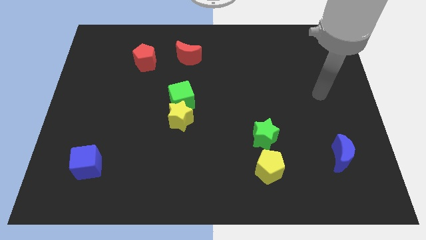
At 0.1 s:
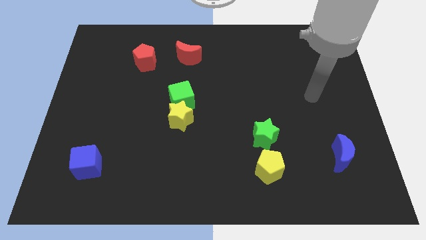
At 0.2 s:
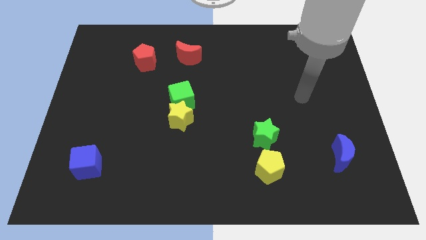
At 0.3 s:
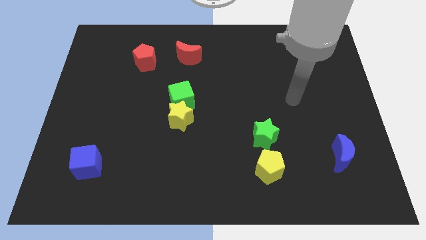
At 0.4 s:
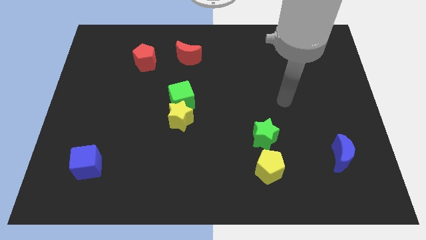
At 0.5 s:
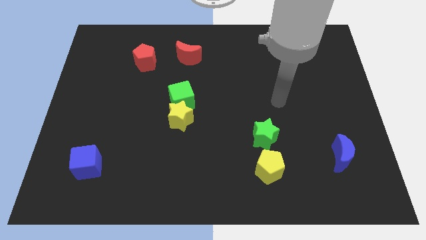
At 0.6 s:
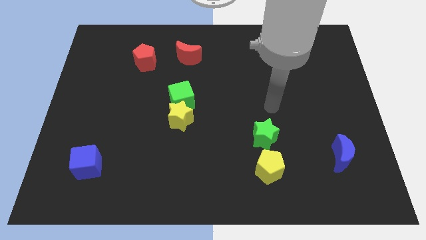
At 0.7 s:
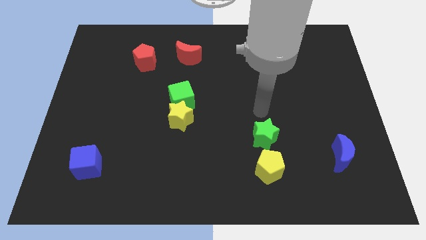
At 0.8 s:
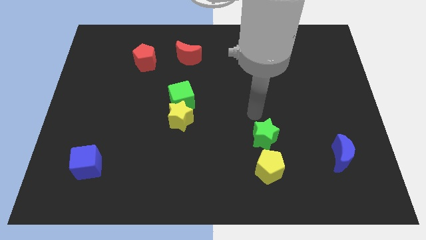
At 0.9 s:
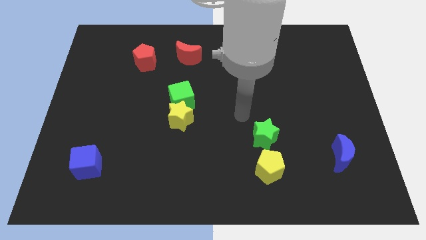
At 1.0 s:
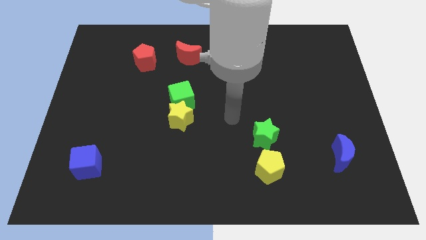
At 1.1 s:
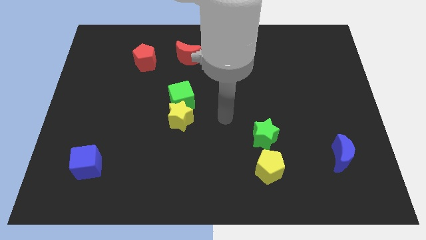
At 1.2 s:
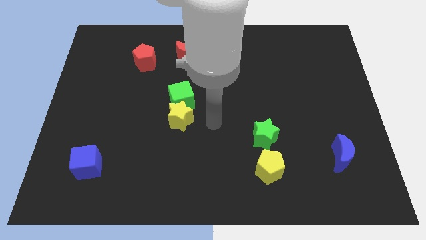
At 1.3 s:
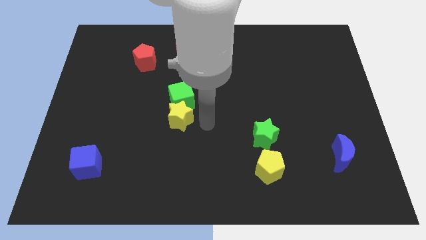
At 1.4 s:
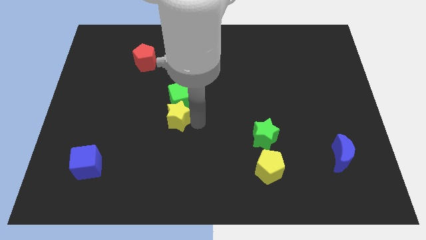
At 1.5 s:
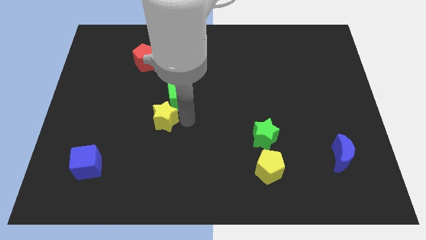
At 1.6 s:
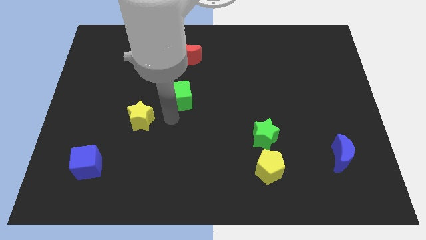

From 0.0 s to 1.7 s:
move the green cube away from the yellow star

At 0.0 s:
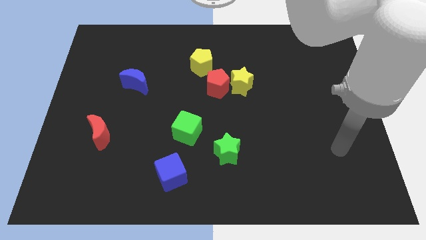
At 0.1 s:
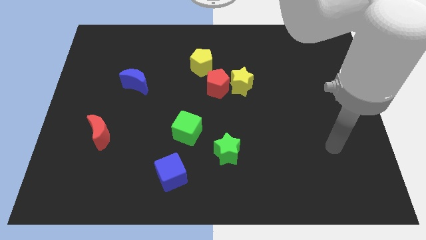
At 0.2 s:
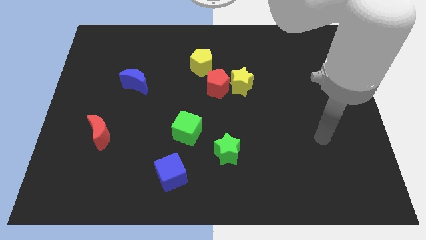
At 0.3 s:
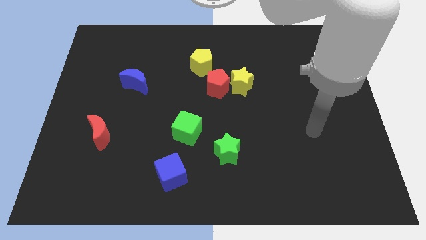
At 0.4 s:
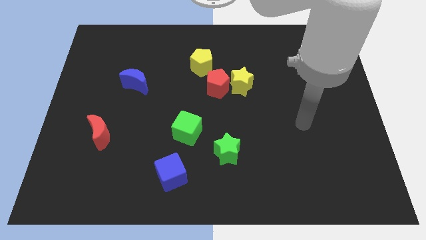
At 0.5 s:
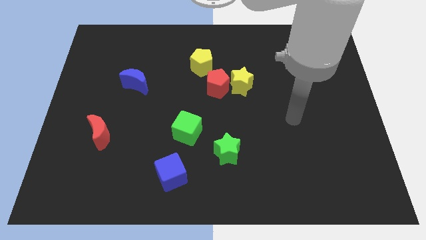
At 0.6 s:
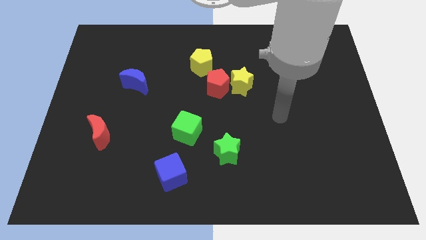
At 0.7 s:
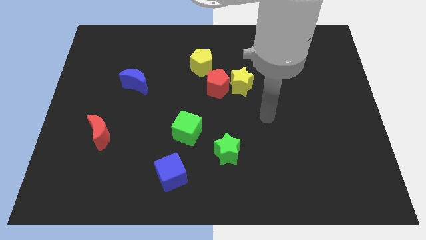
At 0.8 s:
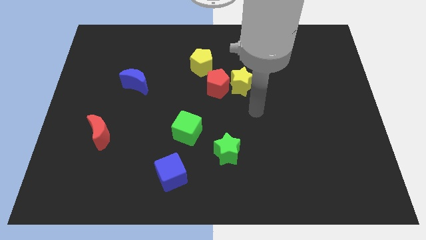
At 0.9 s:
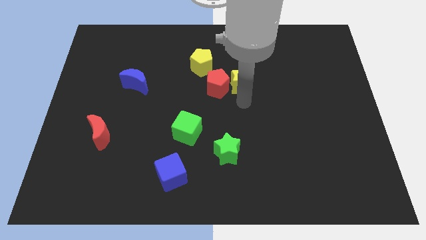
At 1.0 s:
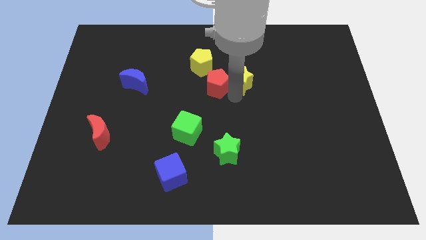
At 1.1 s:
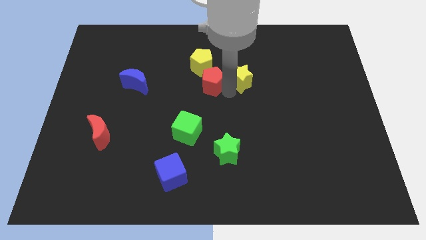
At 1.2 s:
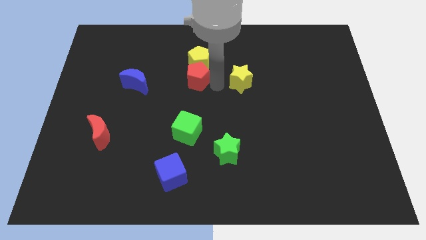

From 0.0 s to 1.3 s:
separate the yellow star from the red pentagon

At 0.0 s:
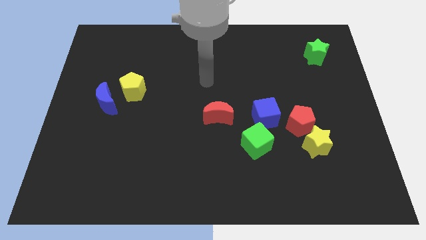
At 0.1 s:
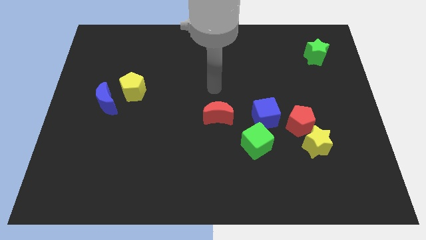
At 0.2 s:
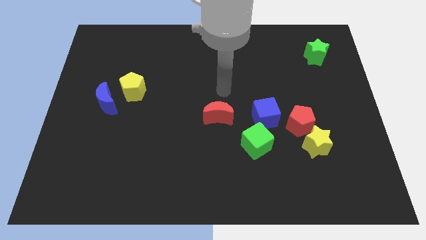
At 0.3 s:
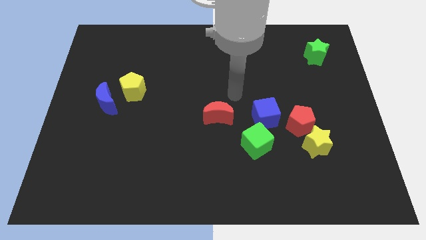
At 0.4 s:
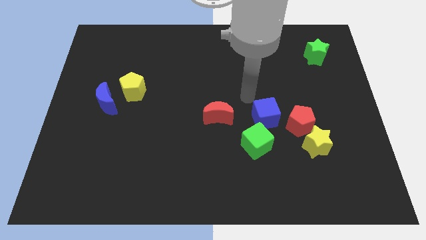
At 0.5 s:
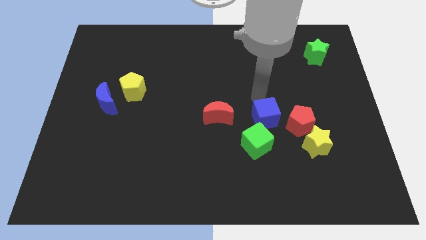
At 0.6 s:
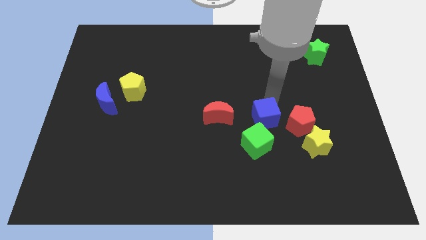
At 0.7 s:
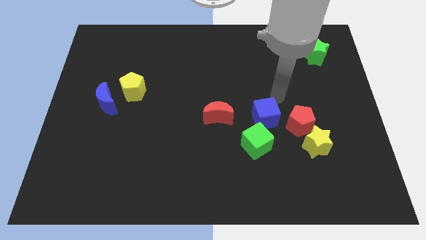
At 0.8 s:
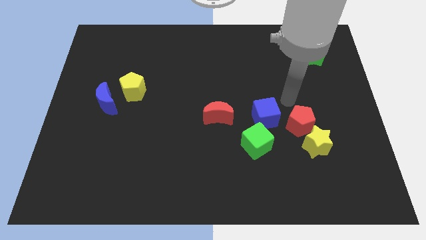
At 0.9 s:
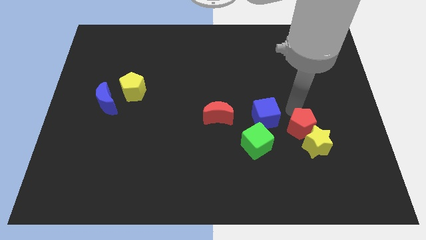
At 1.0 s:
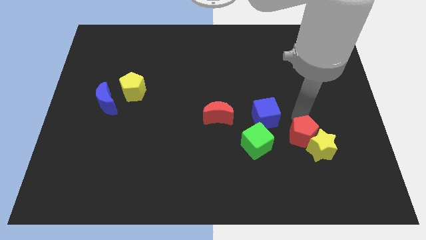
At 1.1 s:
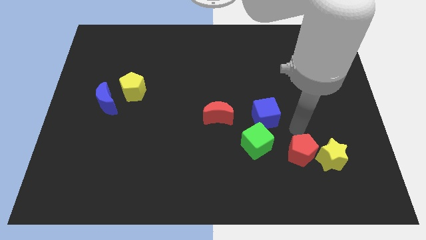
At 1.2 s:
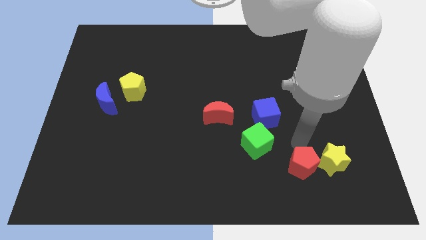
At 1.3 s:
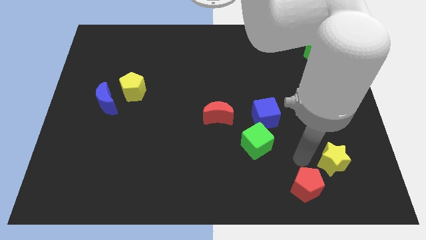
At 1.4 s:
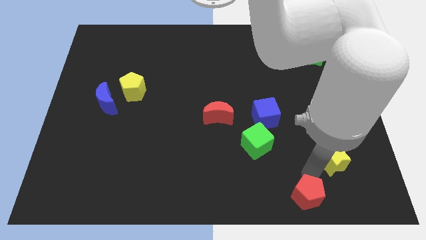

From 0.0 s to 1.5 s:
move the yellow star away from the red pentagon

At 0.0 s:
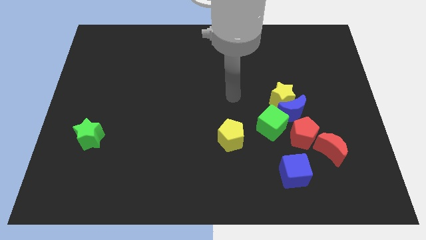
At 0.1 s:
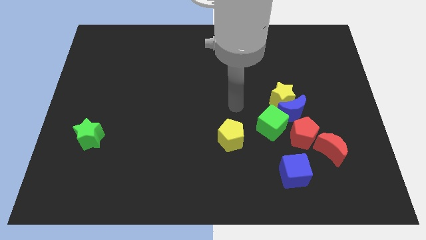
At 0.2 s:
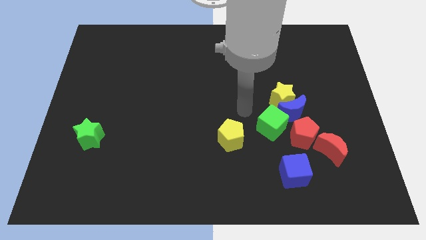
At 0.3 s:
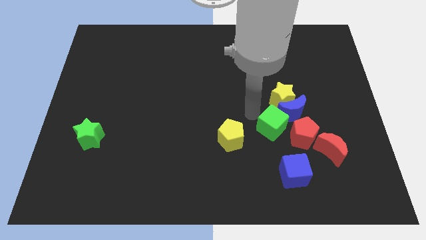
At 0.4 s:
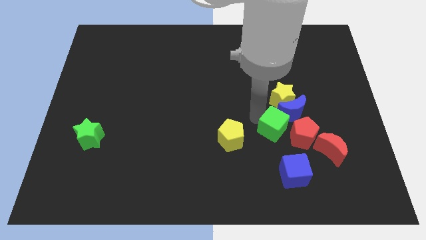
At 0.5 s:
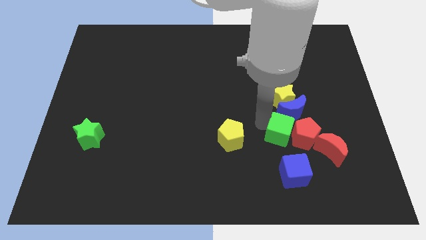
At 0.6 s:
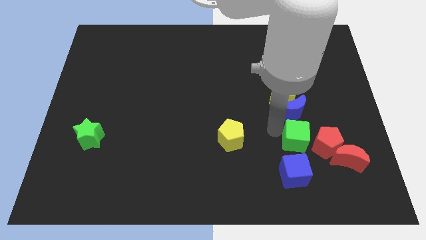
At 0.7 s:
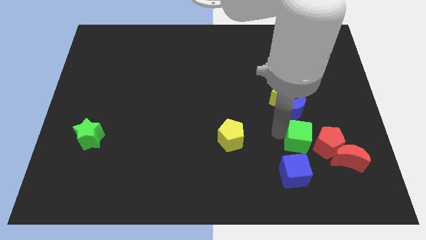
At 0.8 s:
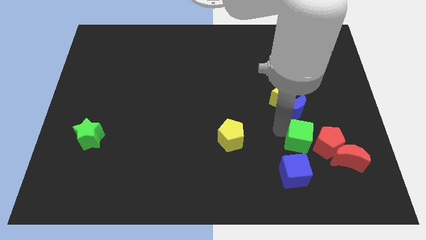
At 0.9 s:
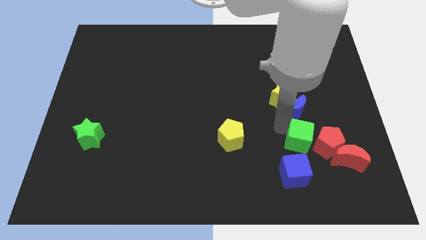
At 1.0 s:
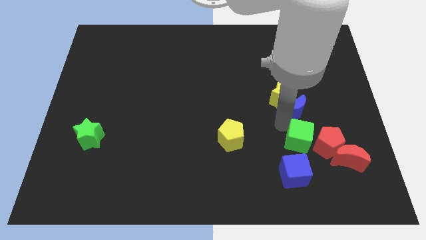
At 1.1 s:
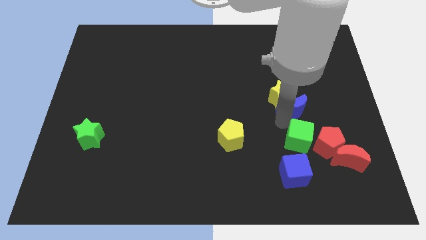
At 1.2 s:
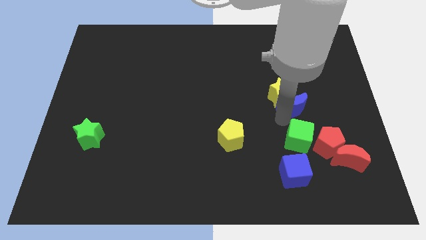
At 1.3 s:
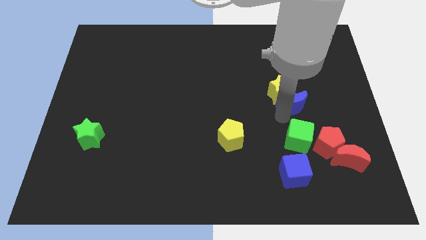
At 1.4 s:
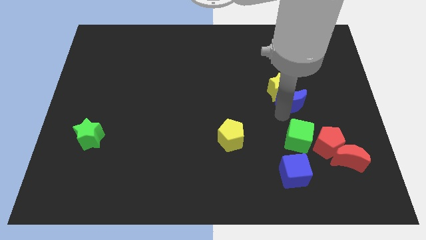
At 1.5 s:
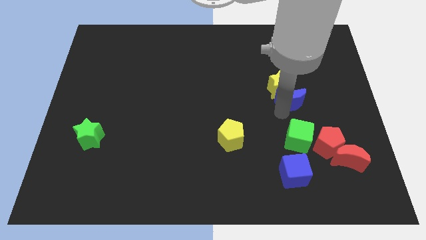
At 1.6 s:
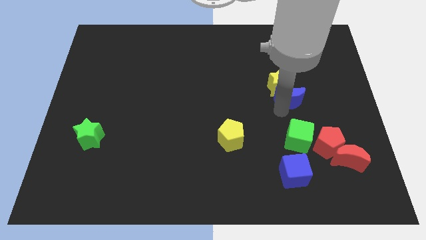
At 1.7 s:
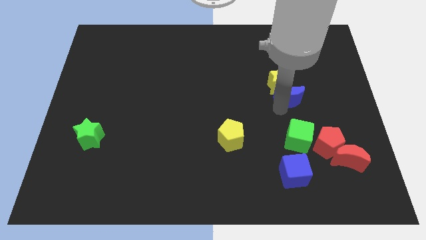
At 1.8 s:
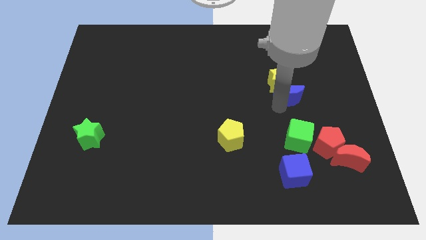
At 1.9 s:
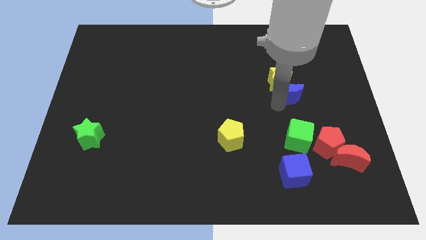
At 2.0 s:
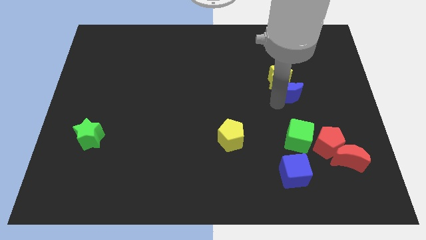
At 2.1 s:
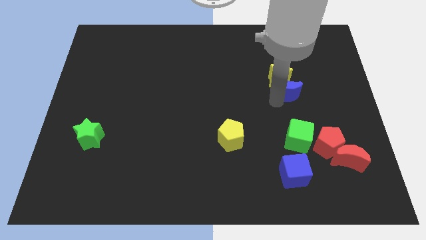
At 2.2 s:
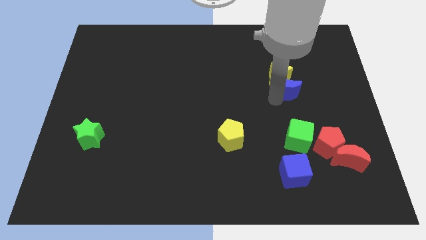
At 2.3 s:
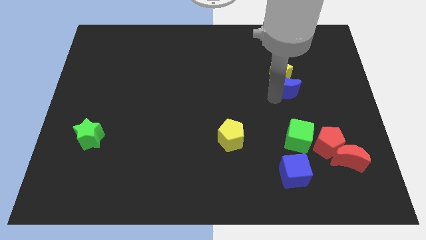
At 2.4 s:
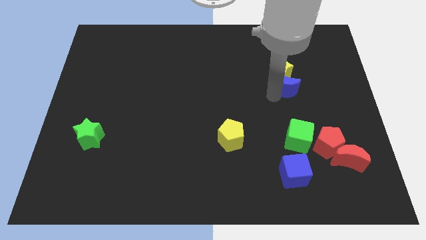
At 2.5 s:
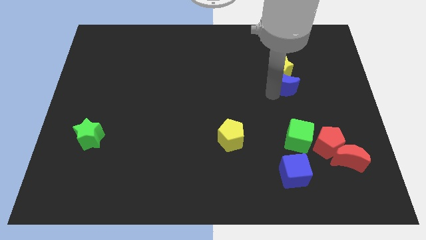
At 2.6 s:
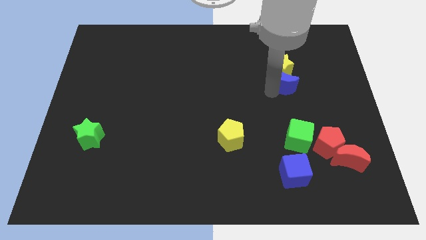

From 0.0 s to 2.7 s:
separate the blue moon from the yellow star, green cube, and red pentagon

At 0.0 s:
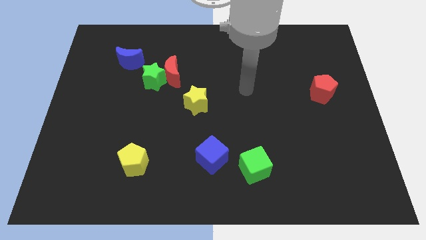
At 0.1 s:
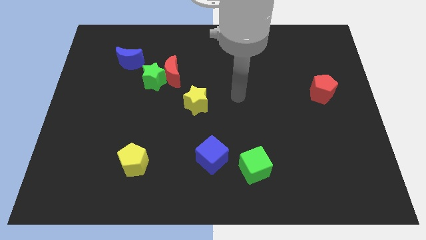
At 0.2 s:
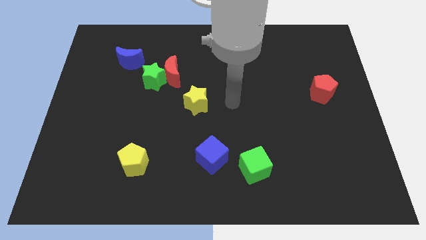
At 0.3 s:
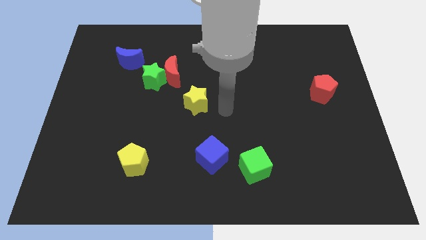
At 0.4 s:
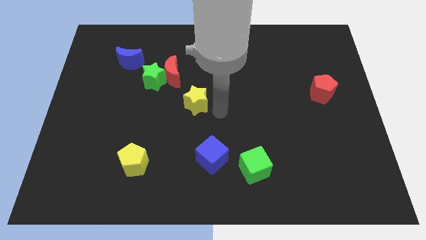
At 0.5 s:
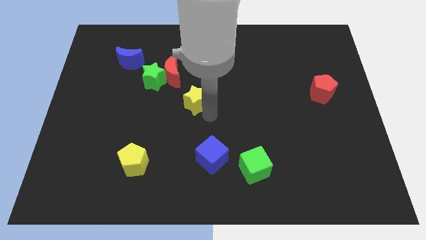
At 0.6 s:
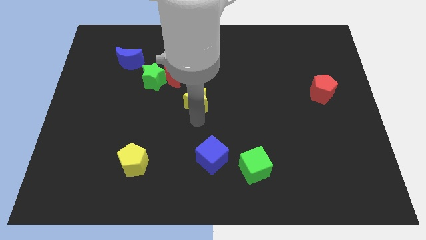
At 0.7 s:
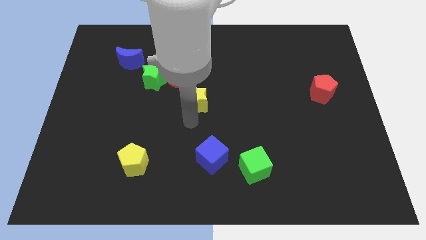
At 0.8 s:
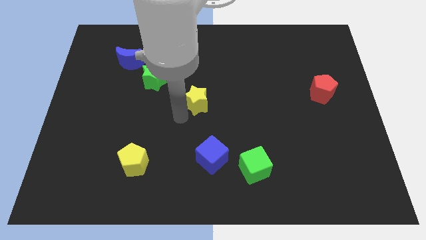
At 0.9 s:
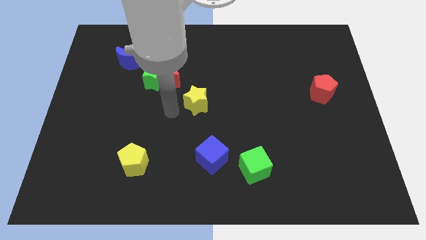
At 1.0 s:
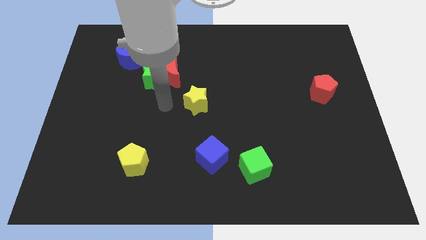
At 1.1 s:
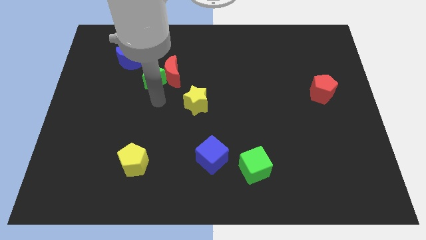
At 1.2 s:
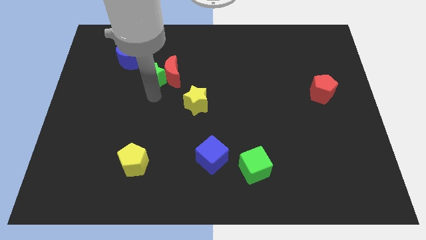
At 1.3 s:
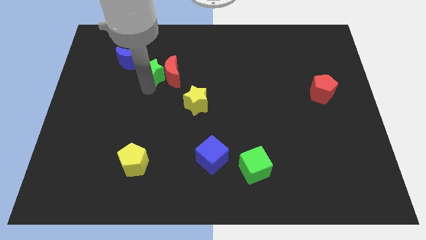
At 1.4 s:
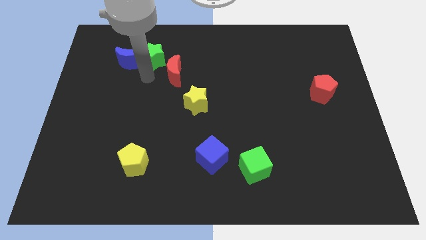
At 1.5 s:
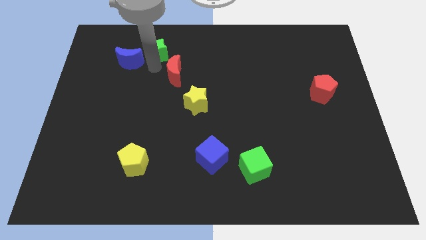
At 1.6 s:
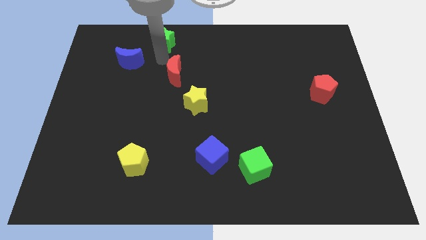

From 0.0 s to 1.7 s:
move the red moon away from the green star

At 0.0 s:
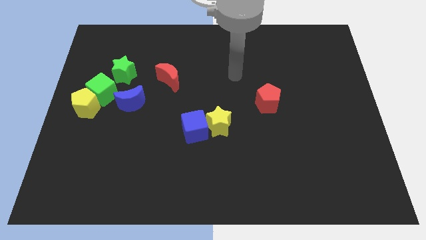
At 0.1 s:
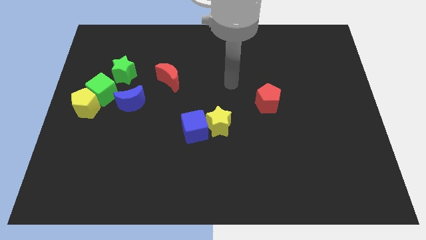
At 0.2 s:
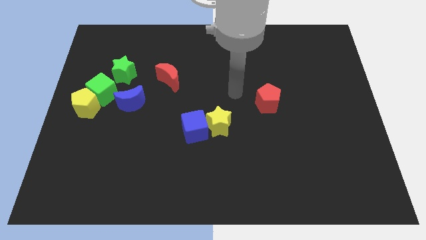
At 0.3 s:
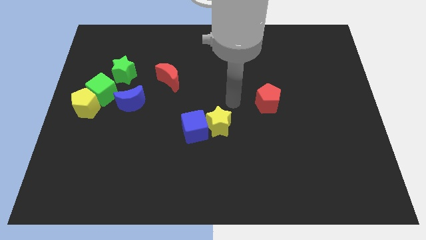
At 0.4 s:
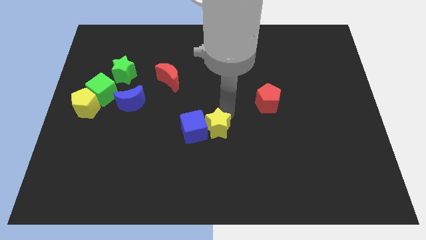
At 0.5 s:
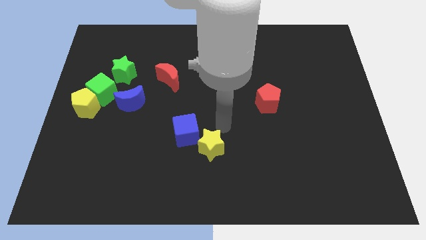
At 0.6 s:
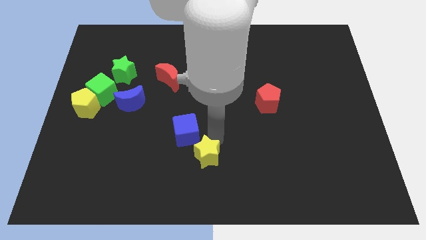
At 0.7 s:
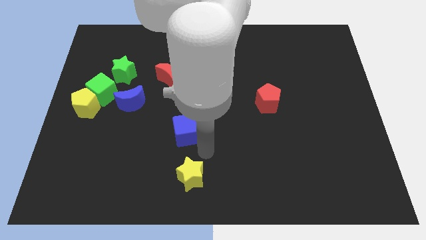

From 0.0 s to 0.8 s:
separate the blue cube from the yellow star
